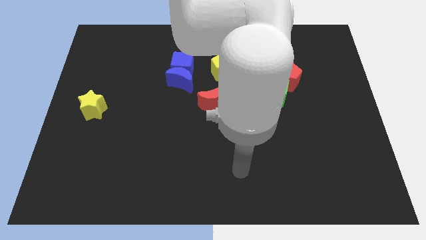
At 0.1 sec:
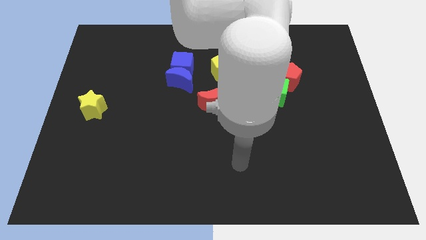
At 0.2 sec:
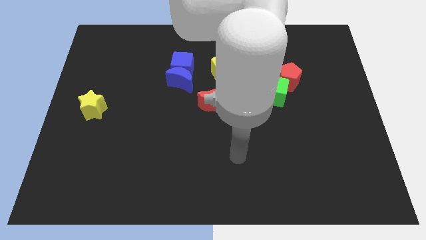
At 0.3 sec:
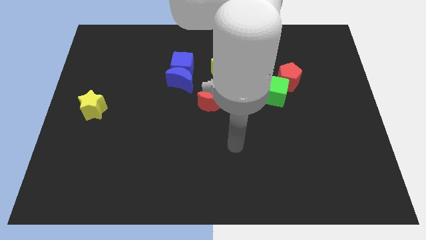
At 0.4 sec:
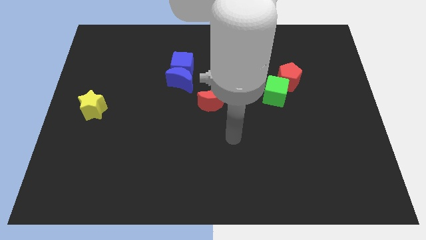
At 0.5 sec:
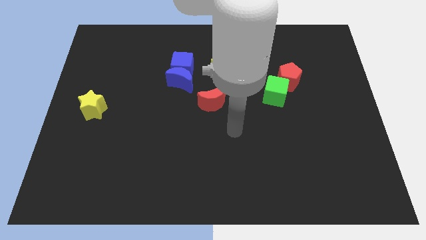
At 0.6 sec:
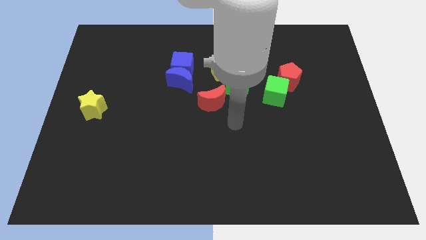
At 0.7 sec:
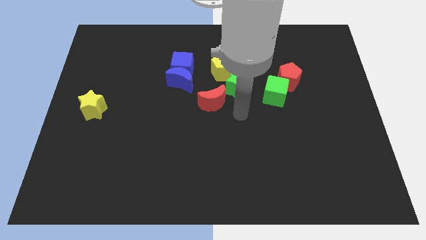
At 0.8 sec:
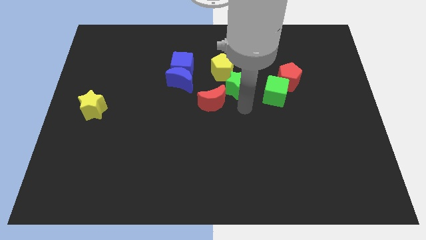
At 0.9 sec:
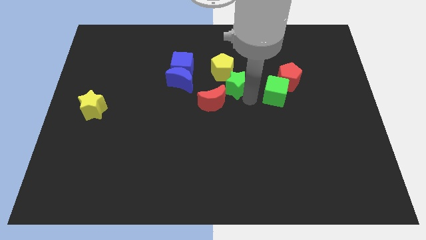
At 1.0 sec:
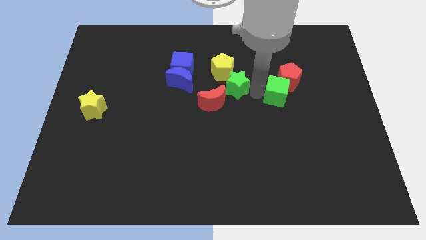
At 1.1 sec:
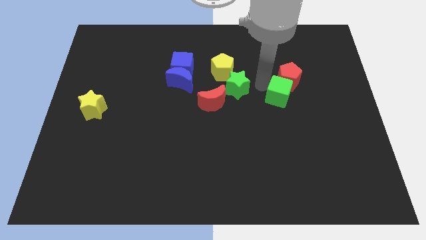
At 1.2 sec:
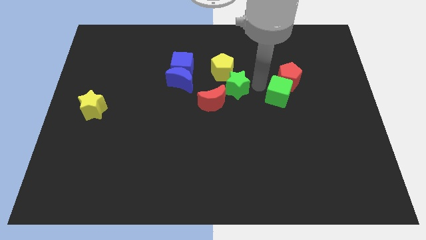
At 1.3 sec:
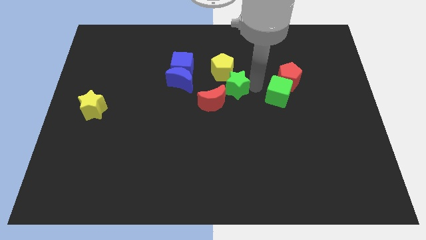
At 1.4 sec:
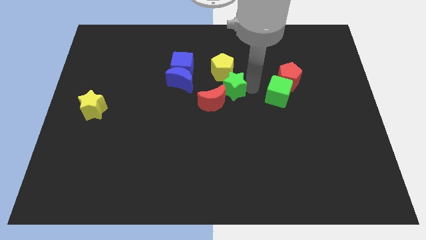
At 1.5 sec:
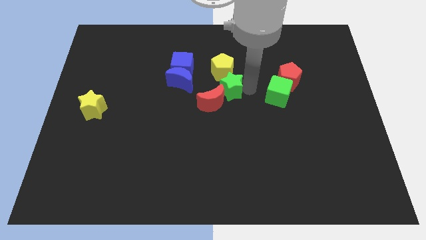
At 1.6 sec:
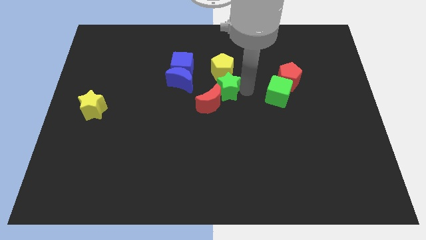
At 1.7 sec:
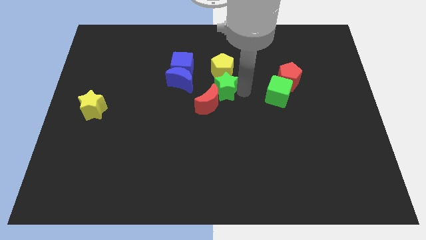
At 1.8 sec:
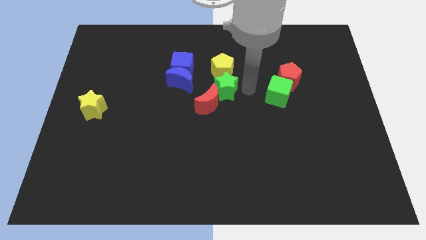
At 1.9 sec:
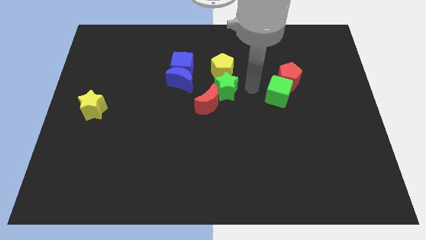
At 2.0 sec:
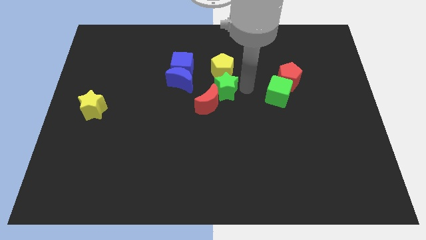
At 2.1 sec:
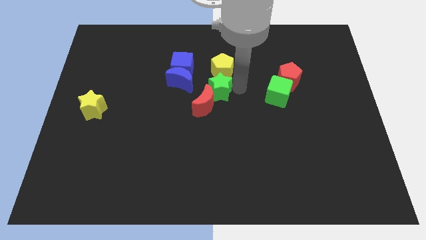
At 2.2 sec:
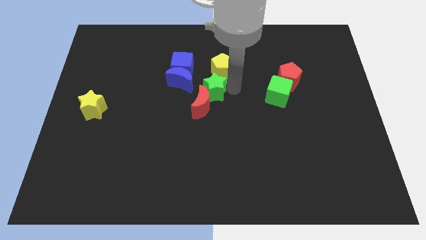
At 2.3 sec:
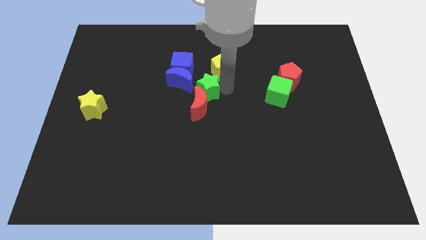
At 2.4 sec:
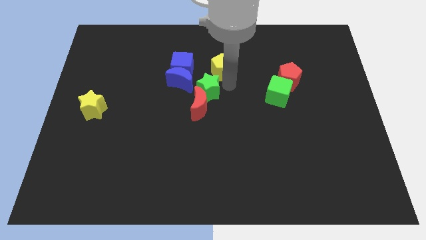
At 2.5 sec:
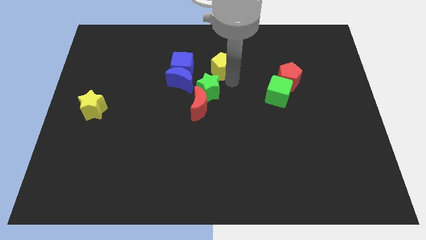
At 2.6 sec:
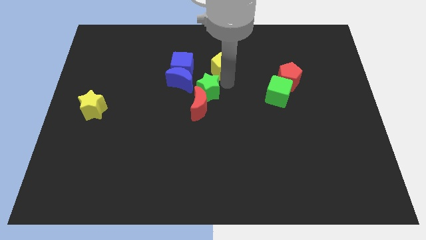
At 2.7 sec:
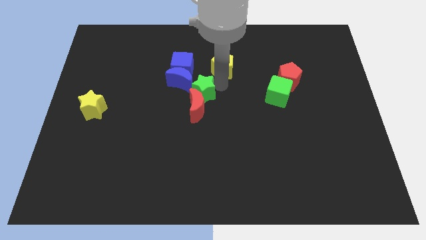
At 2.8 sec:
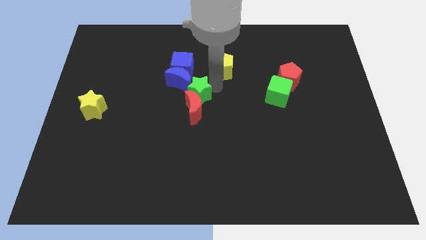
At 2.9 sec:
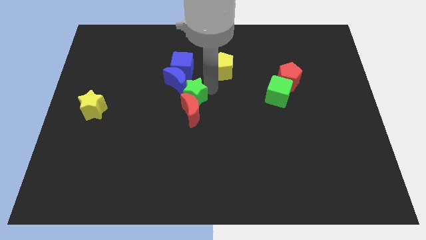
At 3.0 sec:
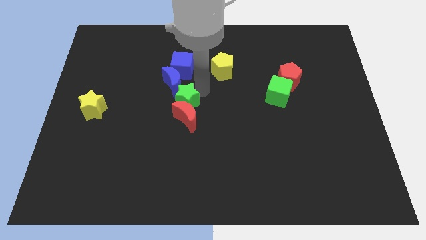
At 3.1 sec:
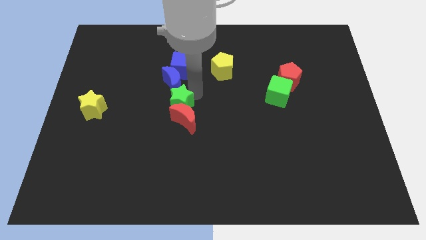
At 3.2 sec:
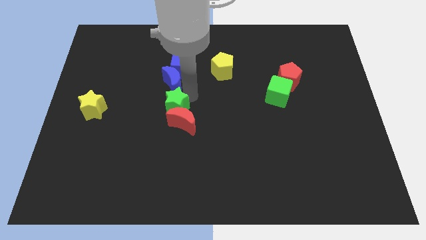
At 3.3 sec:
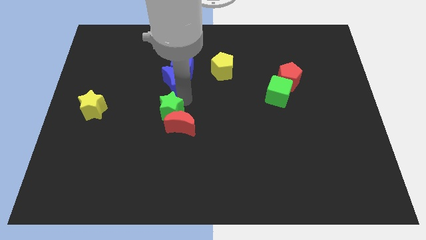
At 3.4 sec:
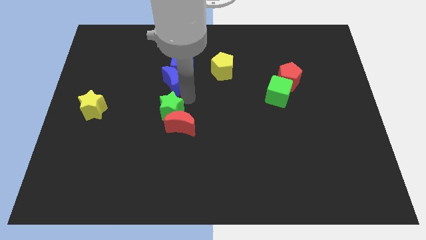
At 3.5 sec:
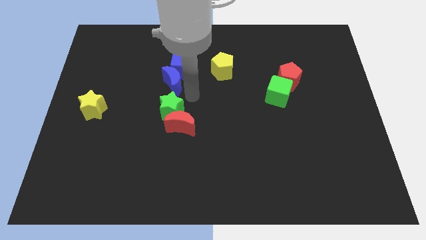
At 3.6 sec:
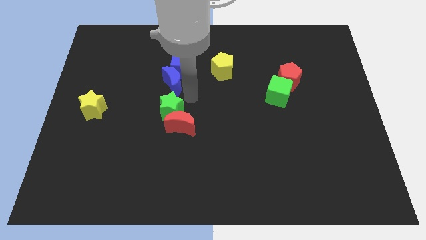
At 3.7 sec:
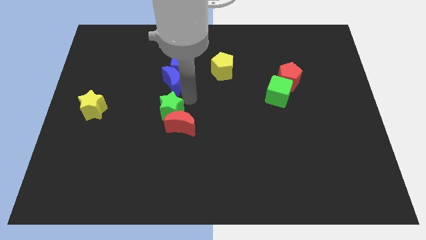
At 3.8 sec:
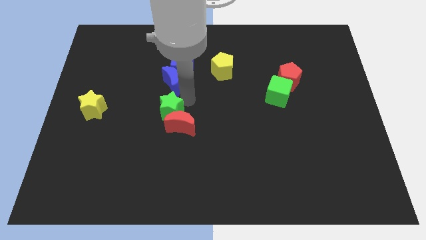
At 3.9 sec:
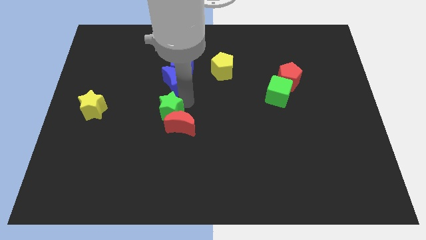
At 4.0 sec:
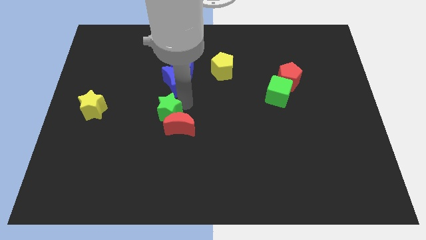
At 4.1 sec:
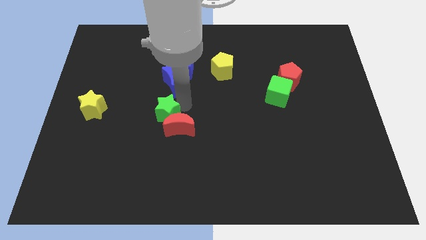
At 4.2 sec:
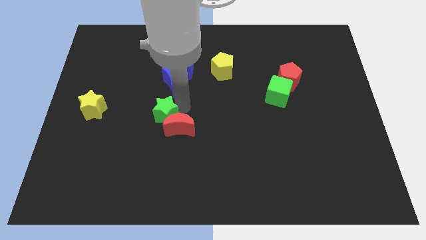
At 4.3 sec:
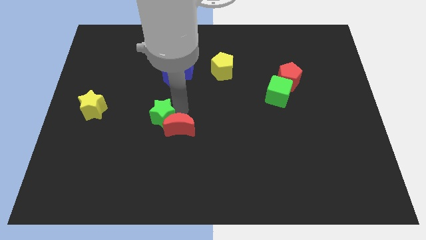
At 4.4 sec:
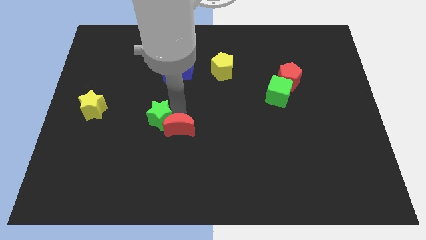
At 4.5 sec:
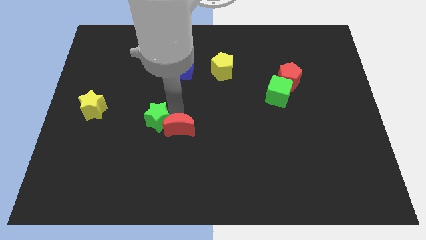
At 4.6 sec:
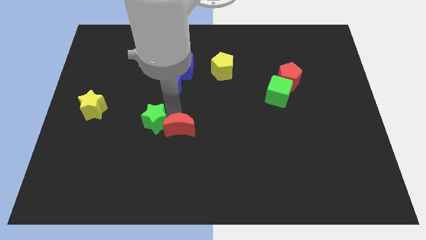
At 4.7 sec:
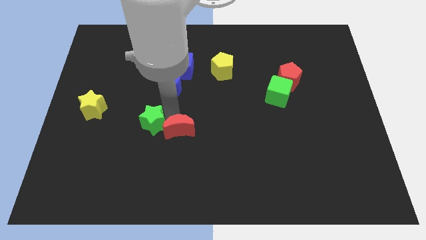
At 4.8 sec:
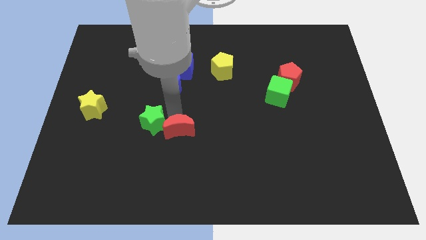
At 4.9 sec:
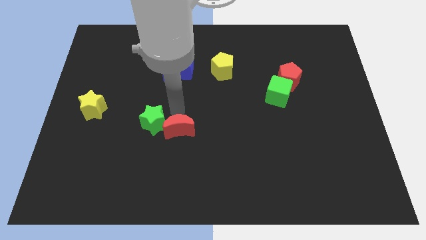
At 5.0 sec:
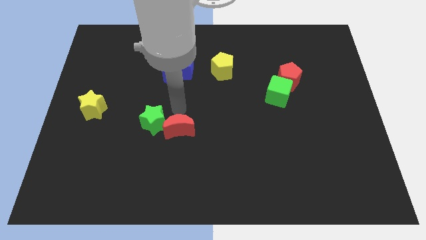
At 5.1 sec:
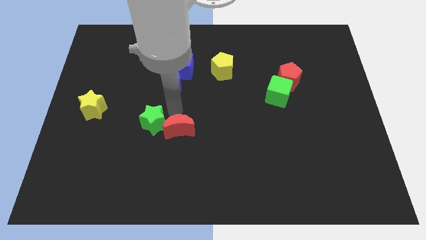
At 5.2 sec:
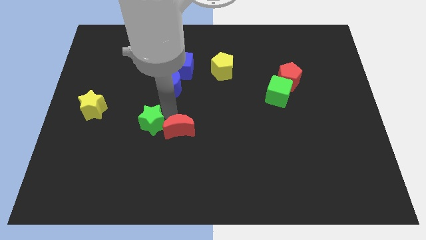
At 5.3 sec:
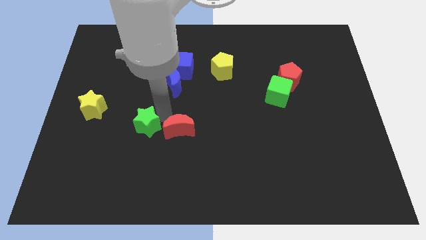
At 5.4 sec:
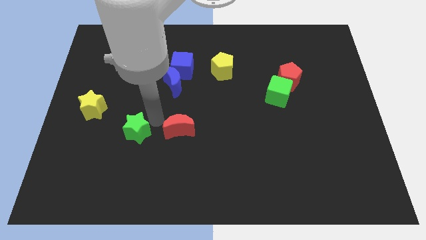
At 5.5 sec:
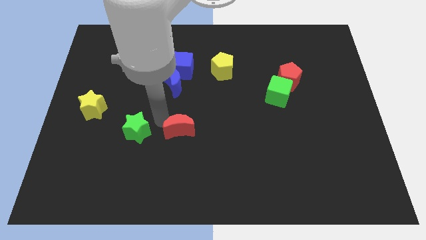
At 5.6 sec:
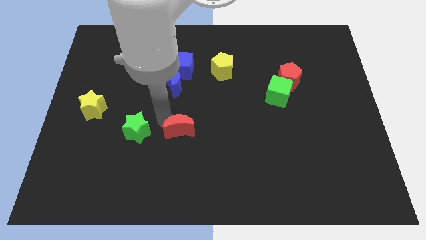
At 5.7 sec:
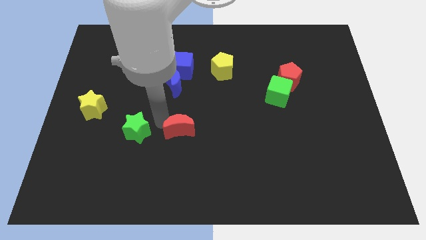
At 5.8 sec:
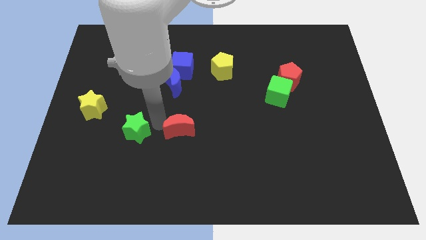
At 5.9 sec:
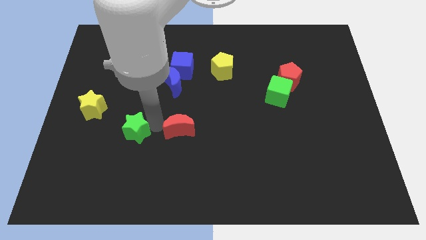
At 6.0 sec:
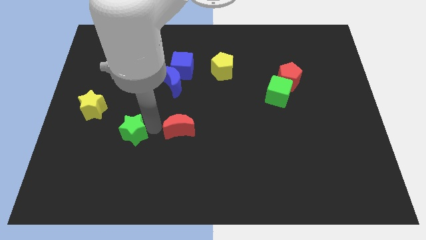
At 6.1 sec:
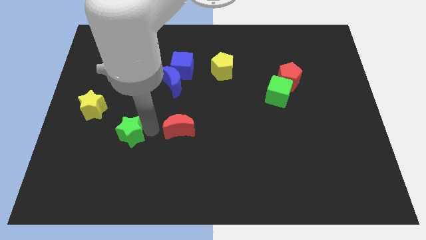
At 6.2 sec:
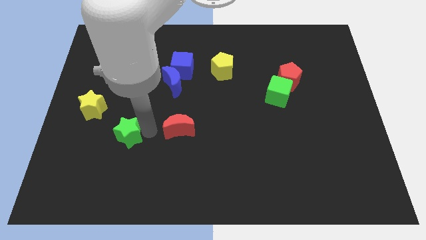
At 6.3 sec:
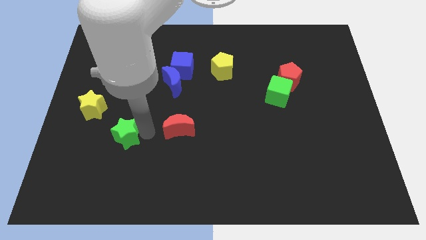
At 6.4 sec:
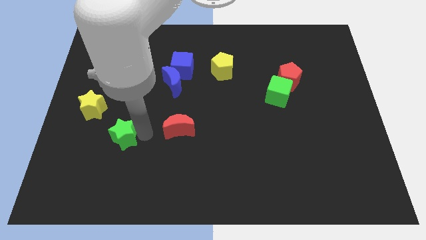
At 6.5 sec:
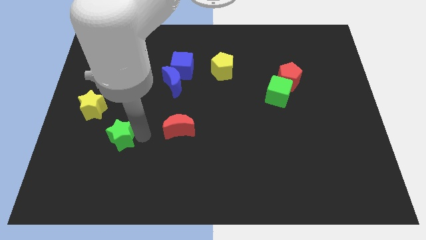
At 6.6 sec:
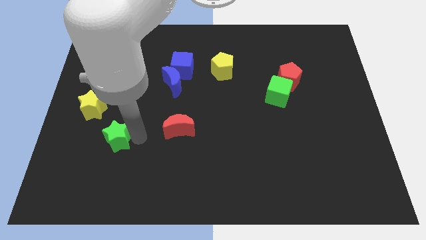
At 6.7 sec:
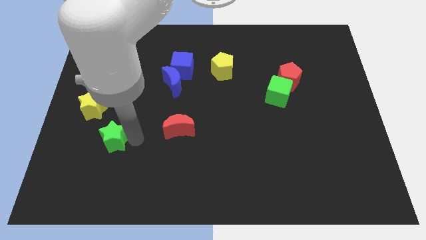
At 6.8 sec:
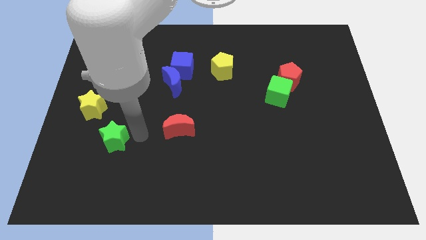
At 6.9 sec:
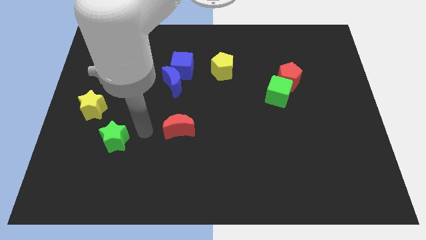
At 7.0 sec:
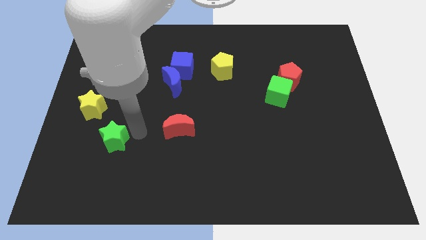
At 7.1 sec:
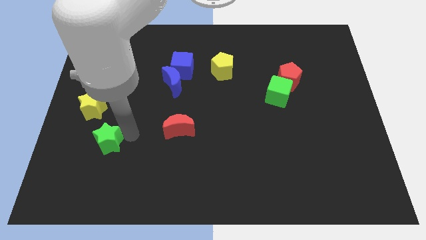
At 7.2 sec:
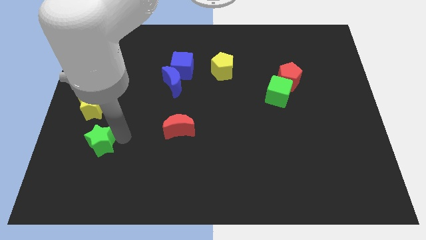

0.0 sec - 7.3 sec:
push the green star below the yellow star
